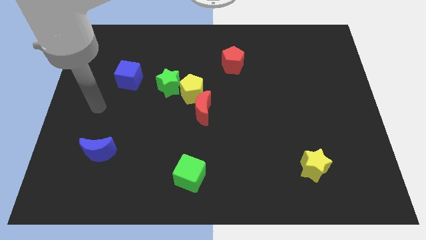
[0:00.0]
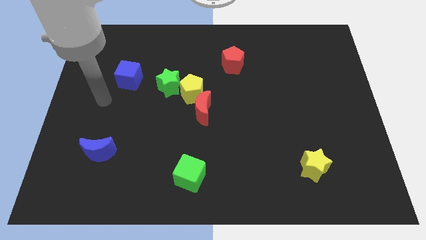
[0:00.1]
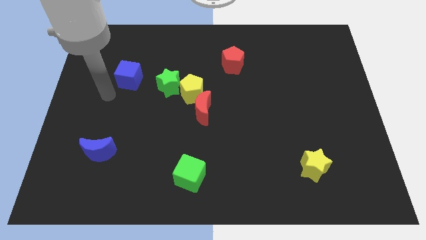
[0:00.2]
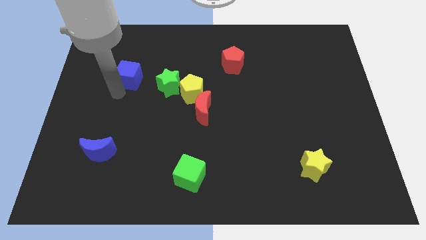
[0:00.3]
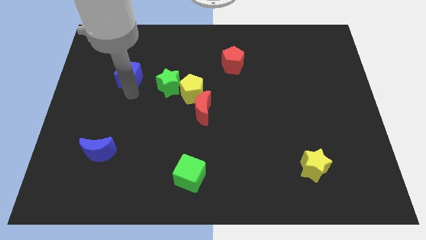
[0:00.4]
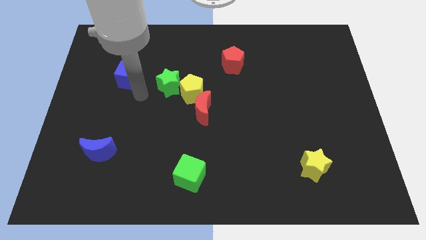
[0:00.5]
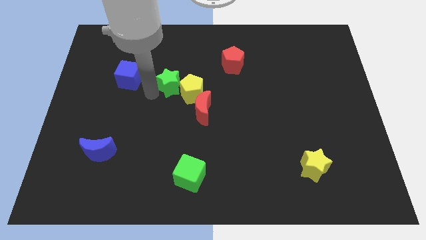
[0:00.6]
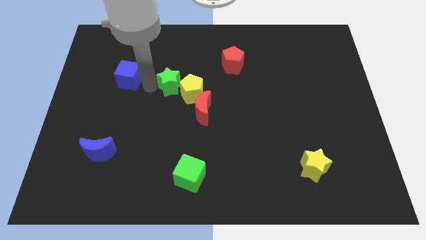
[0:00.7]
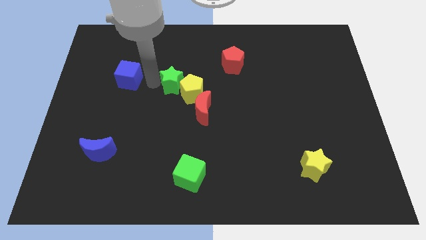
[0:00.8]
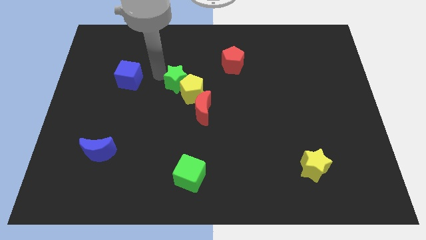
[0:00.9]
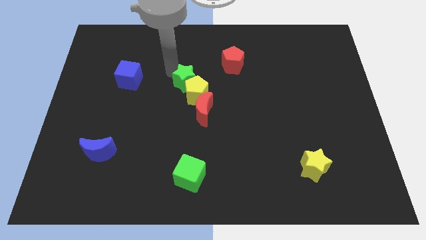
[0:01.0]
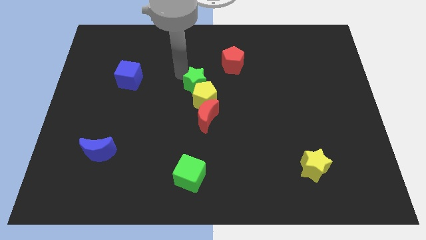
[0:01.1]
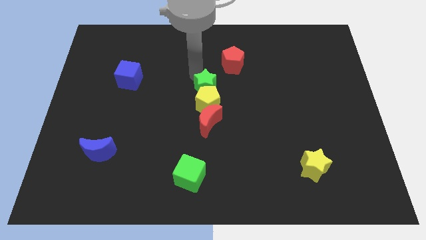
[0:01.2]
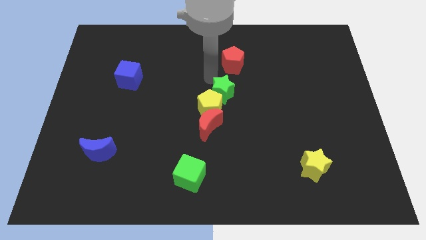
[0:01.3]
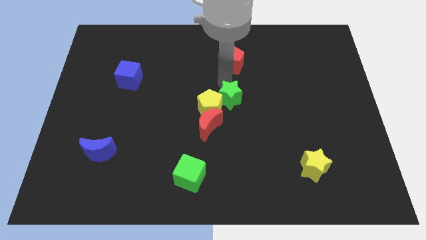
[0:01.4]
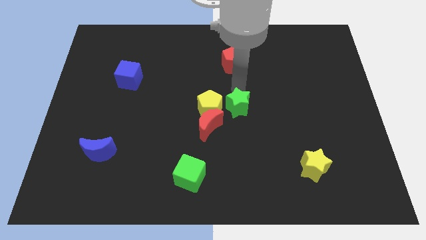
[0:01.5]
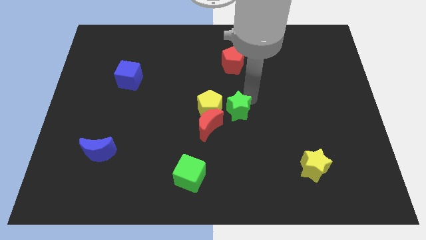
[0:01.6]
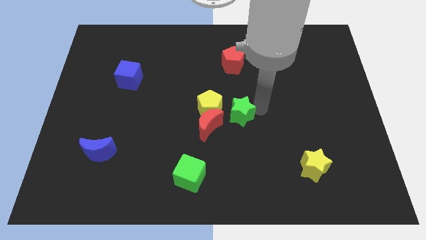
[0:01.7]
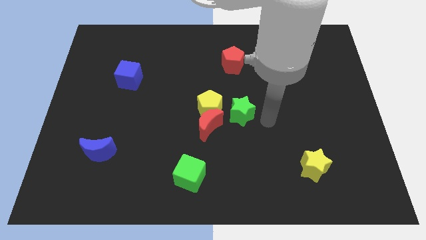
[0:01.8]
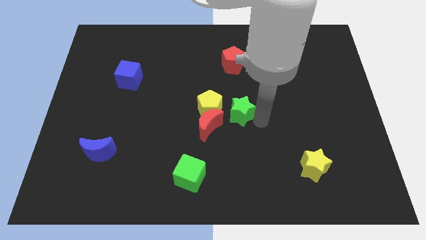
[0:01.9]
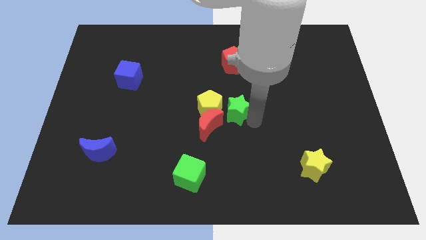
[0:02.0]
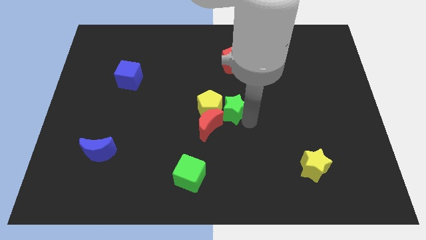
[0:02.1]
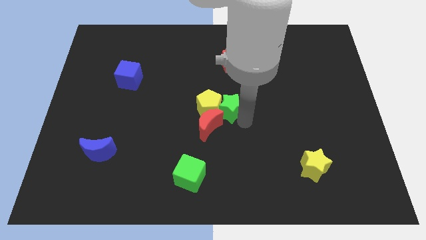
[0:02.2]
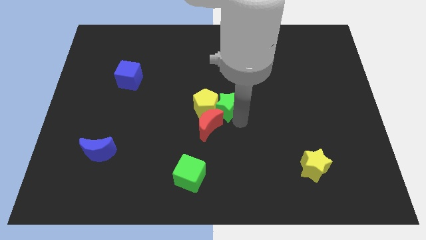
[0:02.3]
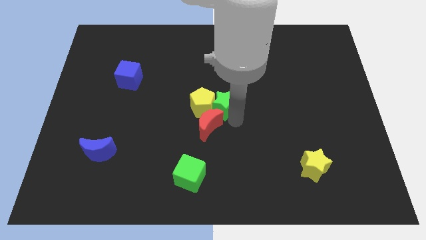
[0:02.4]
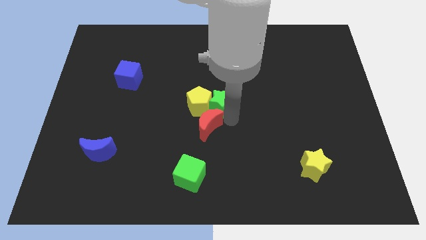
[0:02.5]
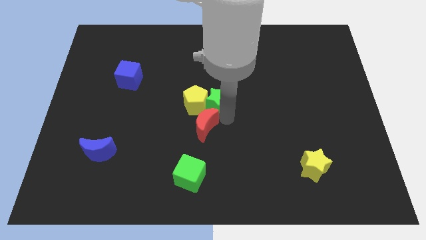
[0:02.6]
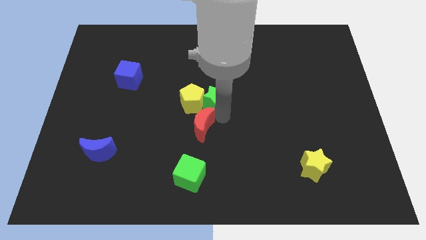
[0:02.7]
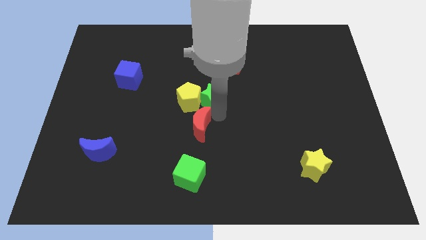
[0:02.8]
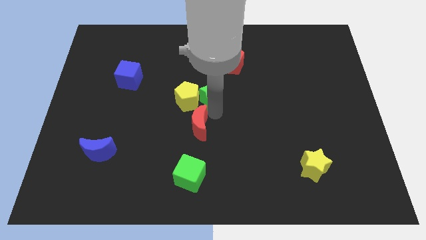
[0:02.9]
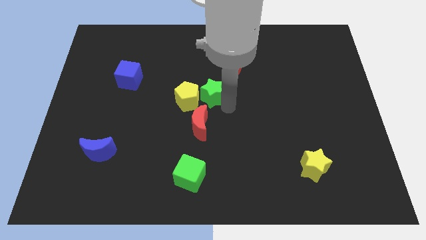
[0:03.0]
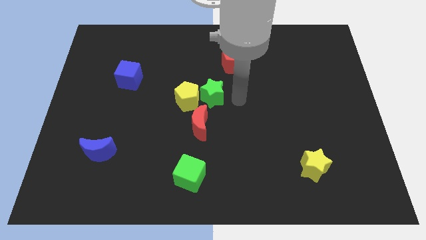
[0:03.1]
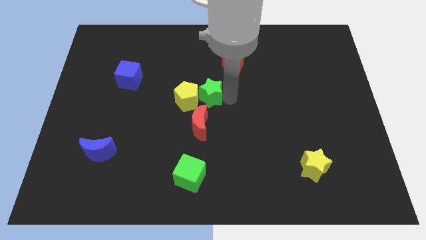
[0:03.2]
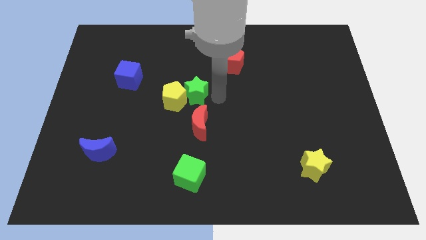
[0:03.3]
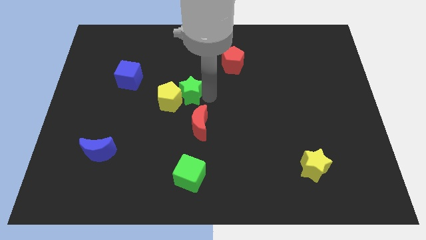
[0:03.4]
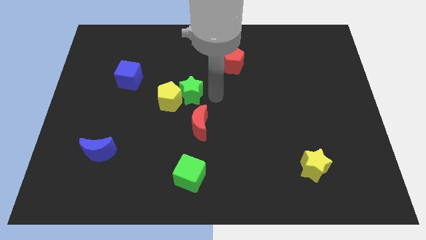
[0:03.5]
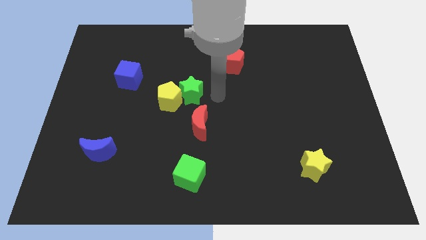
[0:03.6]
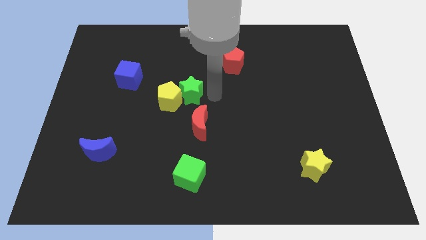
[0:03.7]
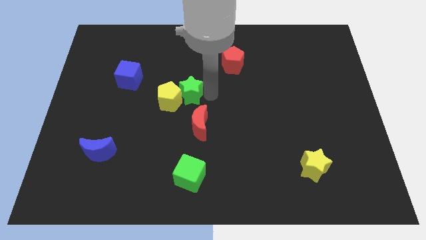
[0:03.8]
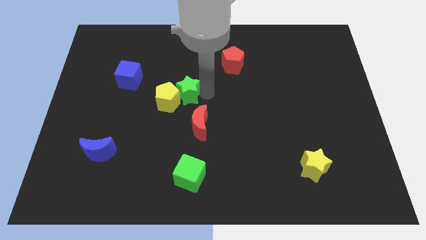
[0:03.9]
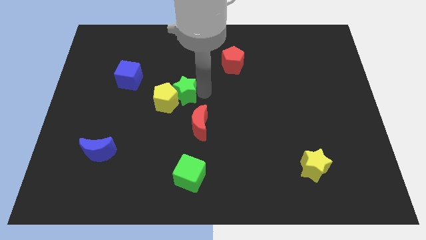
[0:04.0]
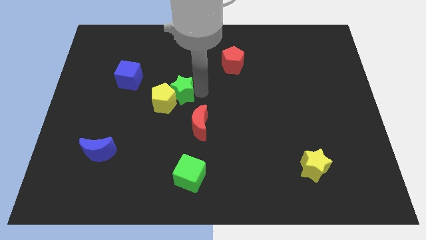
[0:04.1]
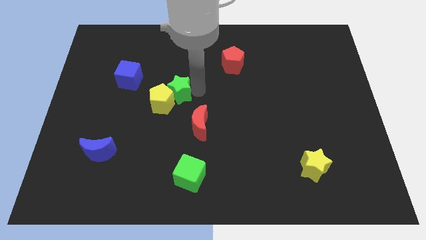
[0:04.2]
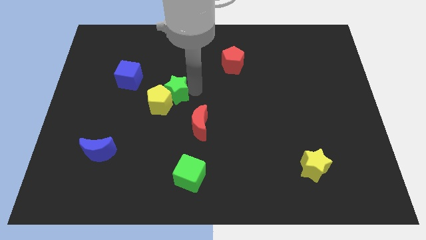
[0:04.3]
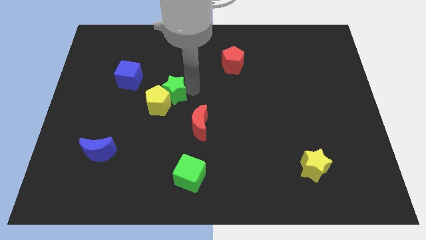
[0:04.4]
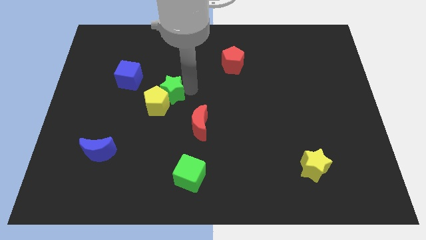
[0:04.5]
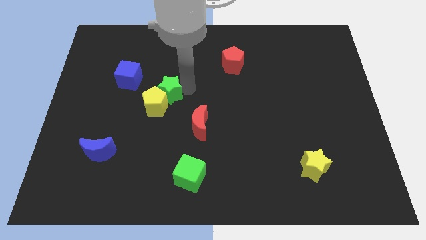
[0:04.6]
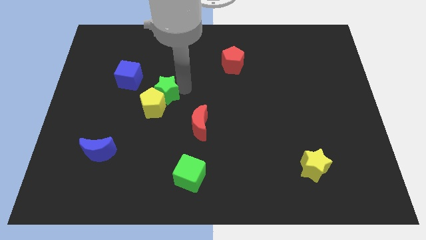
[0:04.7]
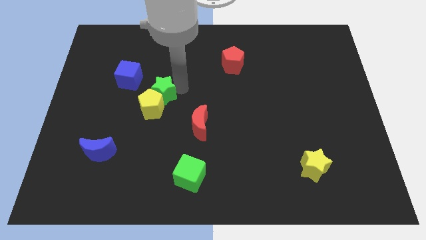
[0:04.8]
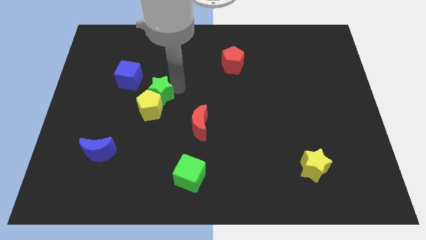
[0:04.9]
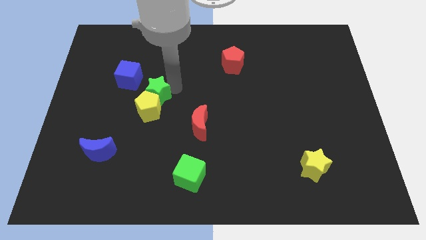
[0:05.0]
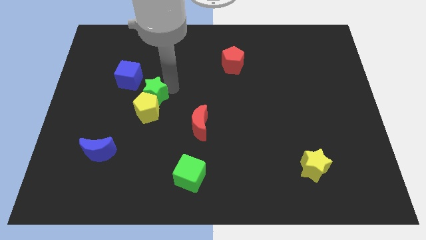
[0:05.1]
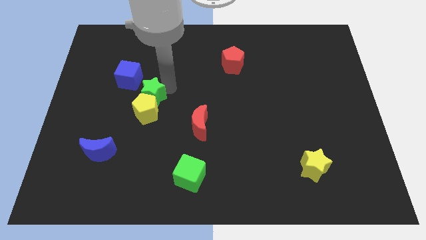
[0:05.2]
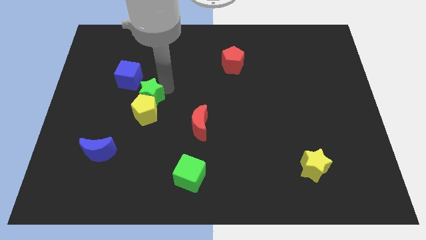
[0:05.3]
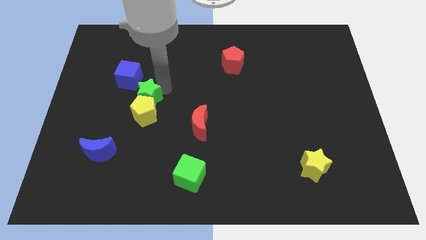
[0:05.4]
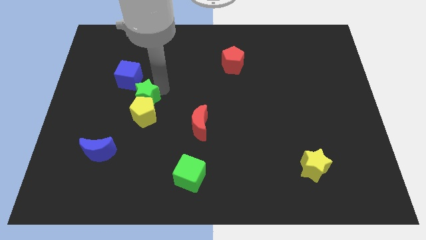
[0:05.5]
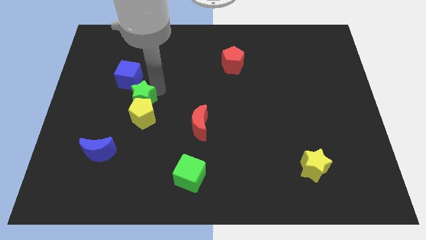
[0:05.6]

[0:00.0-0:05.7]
slightly move the green star diagonally down and left

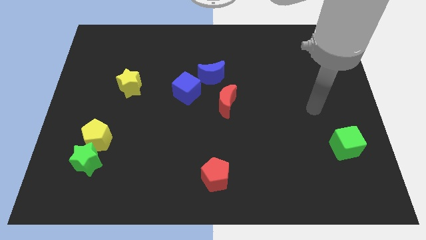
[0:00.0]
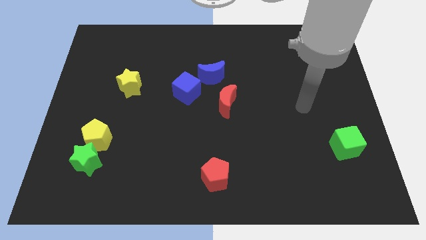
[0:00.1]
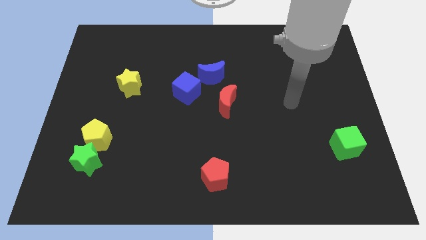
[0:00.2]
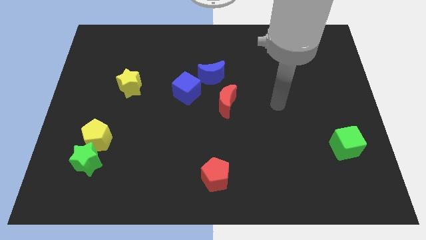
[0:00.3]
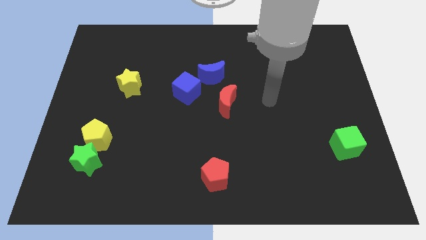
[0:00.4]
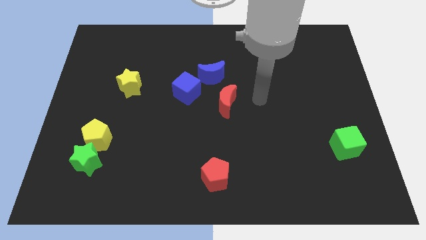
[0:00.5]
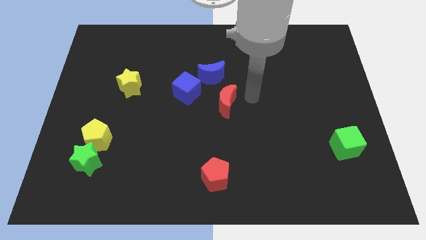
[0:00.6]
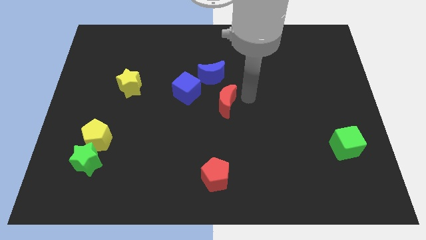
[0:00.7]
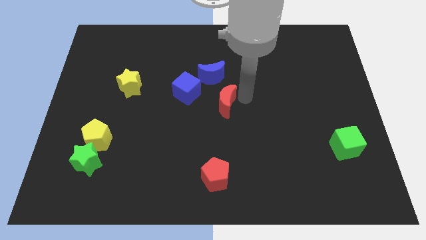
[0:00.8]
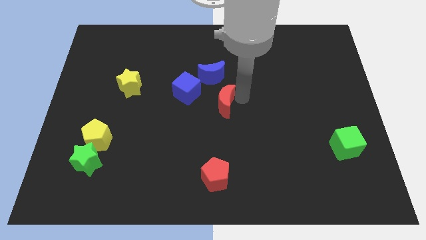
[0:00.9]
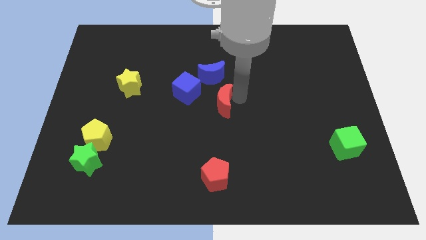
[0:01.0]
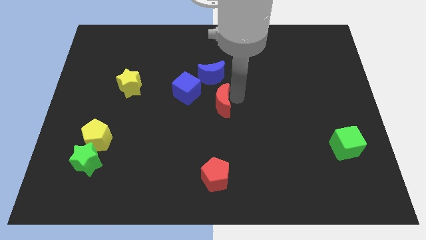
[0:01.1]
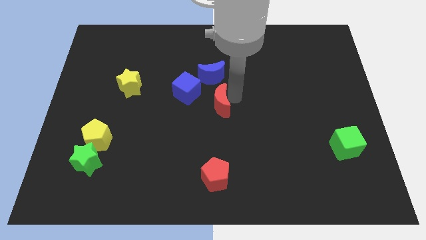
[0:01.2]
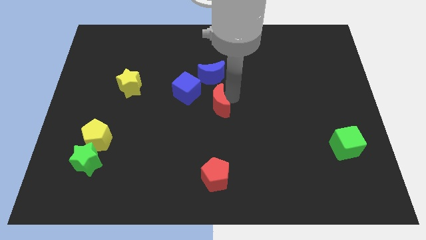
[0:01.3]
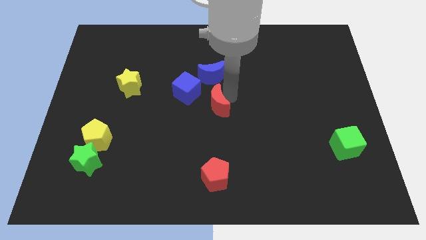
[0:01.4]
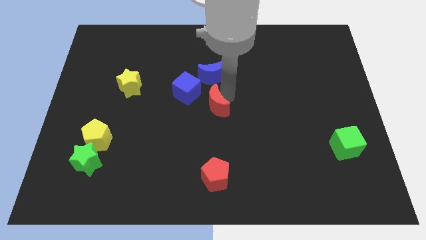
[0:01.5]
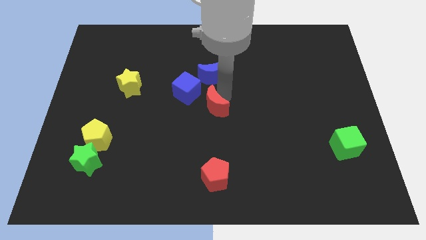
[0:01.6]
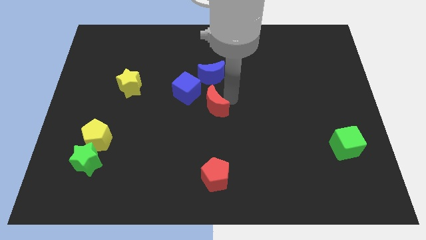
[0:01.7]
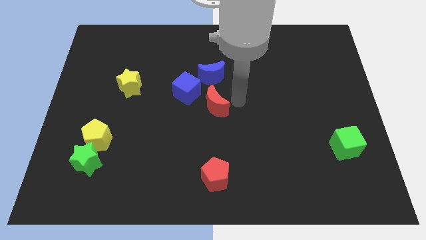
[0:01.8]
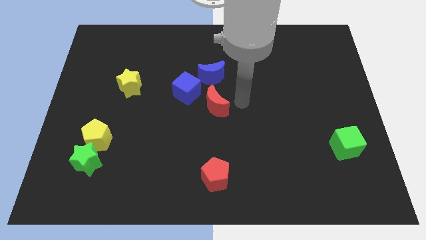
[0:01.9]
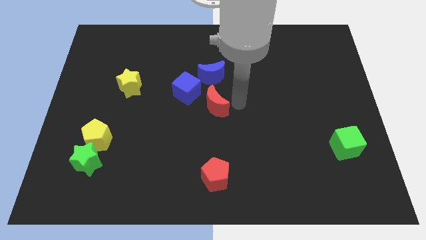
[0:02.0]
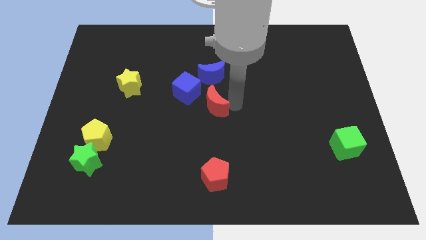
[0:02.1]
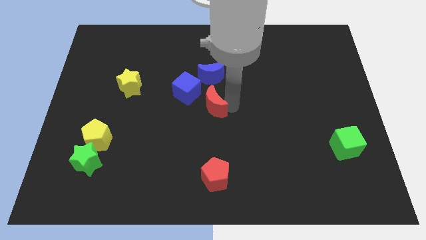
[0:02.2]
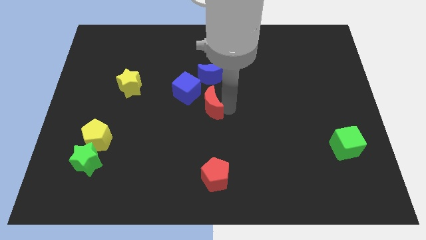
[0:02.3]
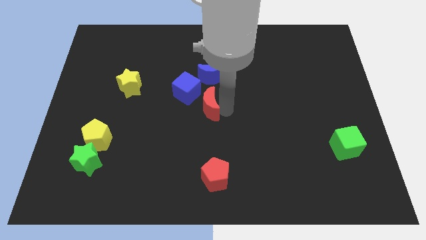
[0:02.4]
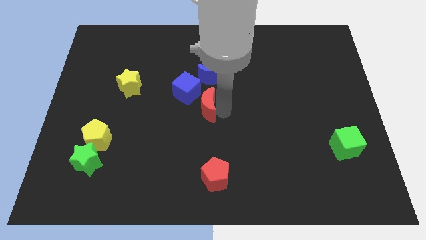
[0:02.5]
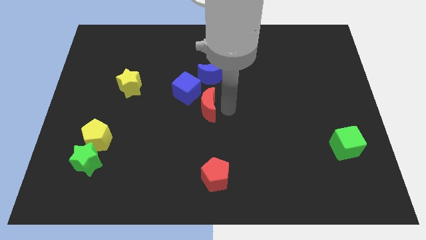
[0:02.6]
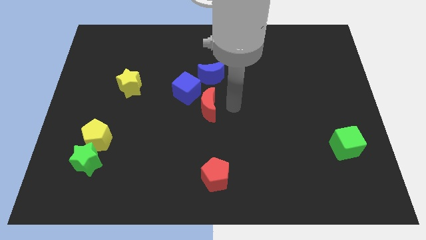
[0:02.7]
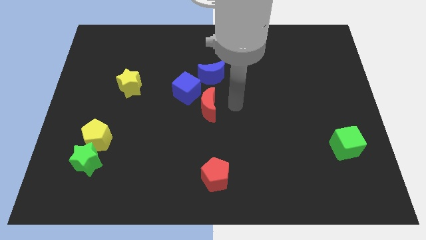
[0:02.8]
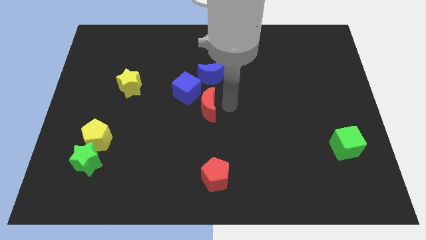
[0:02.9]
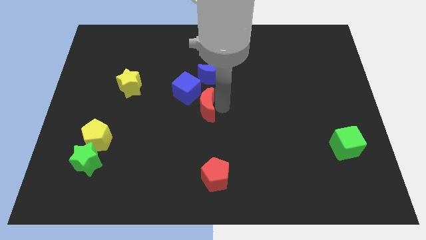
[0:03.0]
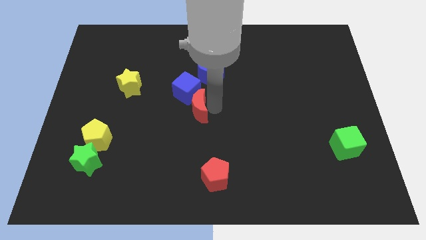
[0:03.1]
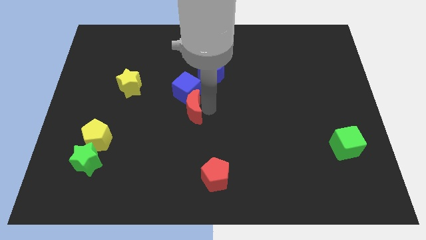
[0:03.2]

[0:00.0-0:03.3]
move the red moon somewhat to the left
